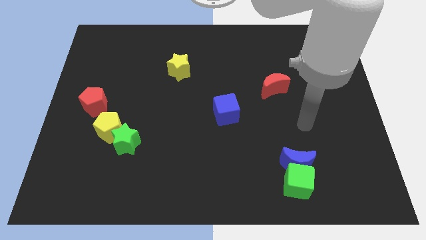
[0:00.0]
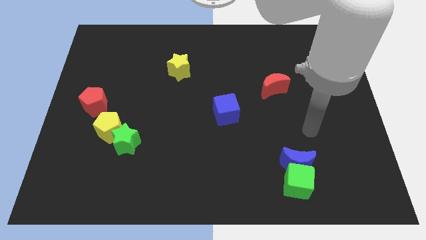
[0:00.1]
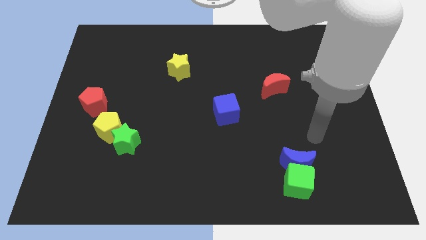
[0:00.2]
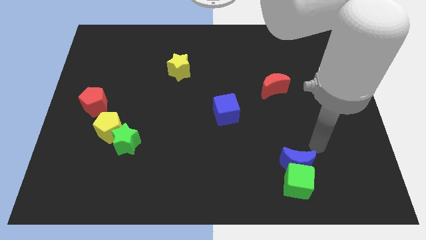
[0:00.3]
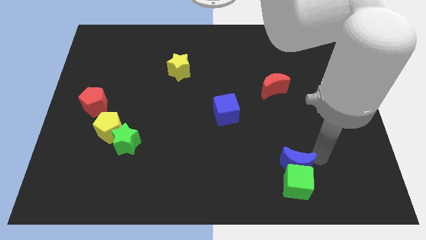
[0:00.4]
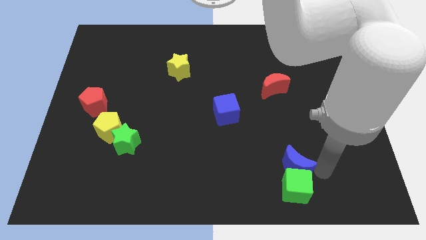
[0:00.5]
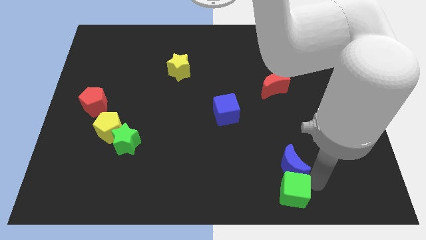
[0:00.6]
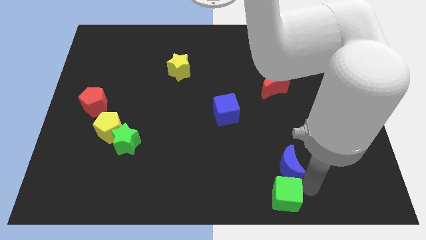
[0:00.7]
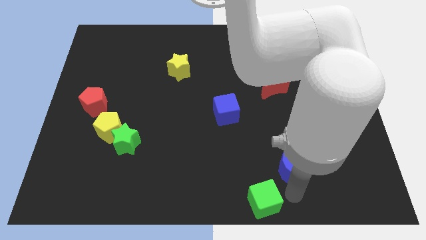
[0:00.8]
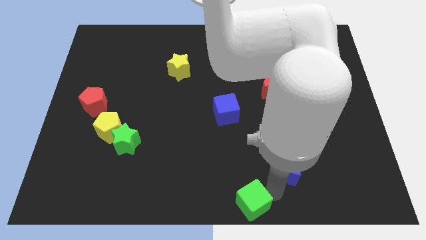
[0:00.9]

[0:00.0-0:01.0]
separate the blue moon from the green cube

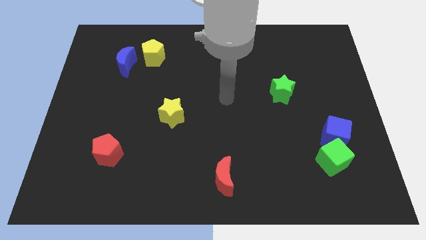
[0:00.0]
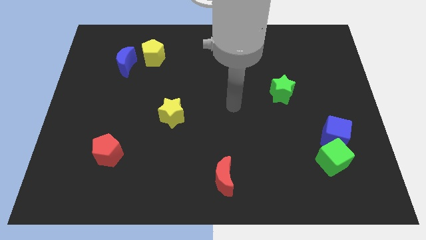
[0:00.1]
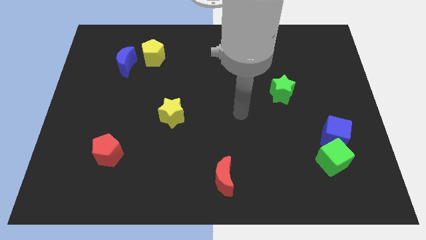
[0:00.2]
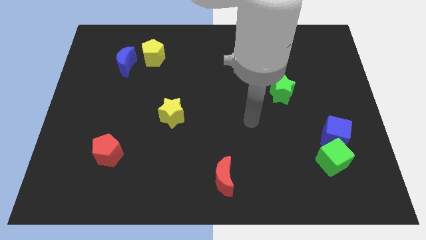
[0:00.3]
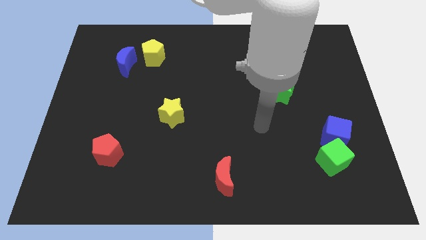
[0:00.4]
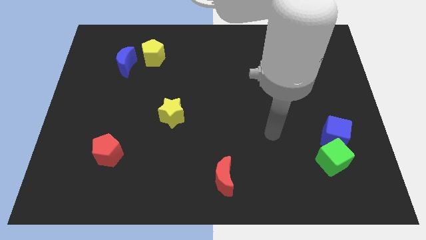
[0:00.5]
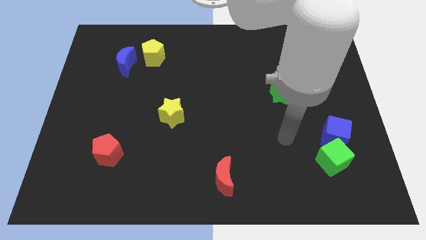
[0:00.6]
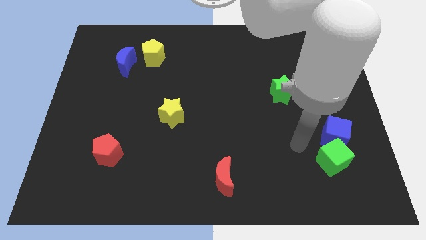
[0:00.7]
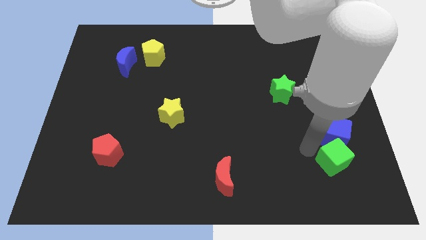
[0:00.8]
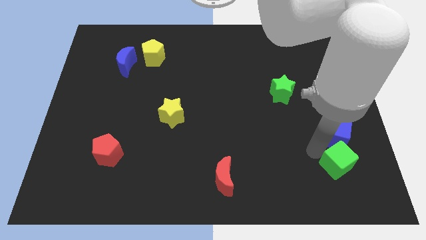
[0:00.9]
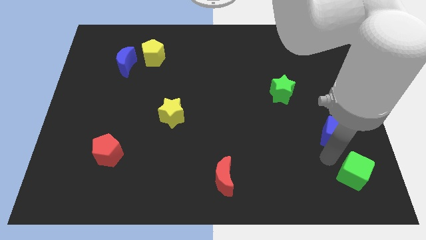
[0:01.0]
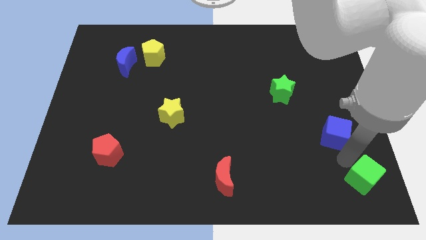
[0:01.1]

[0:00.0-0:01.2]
separate the blue cube from the green cube

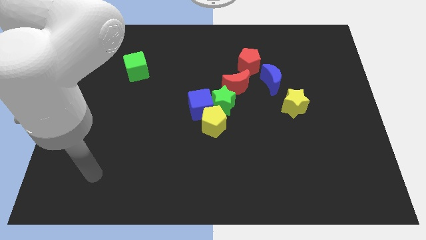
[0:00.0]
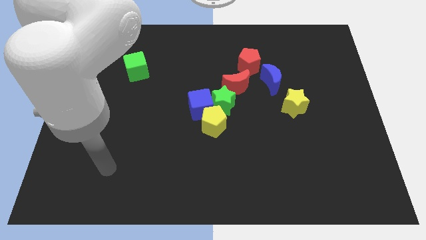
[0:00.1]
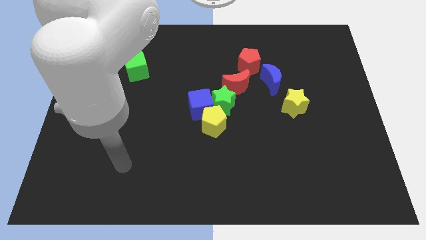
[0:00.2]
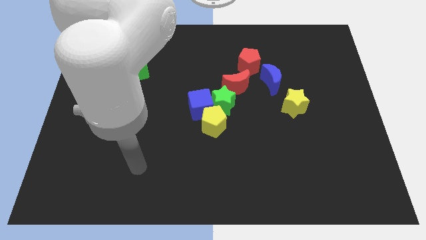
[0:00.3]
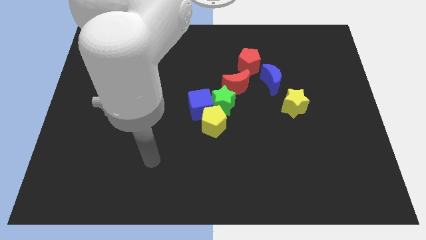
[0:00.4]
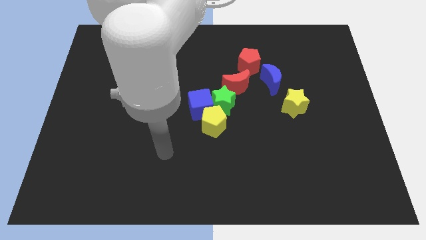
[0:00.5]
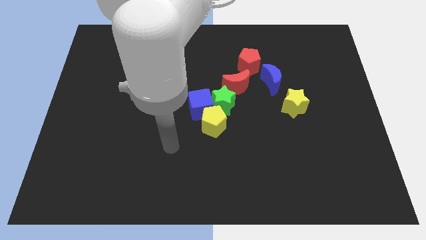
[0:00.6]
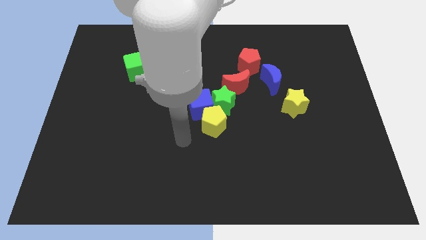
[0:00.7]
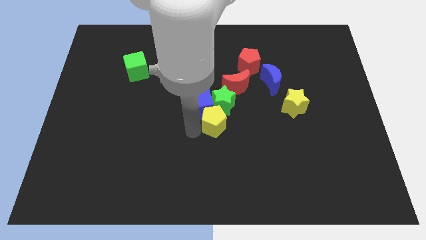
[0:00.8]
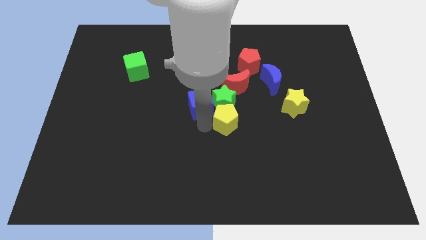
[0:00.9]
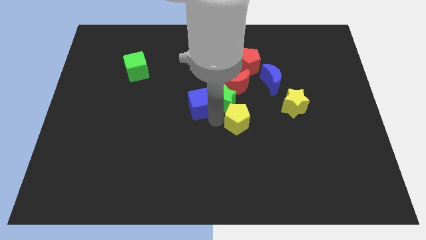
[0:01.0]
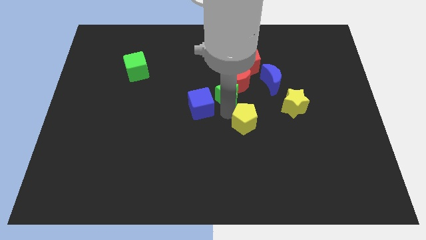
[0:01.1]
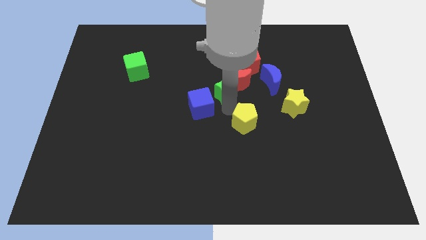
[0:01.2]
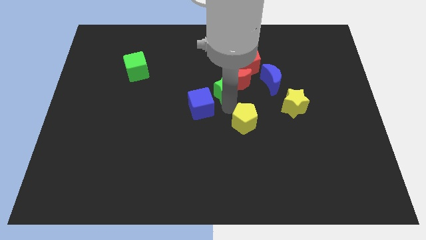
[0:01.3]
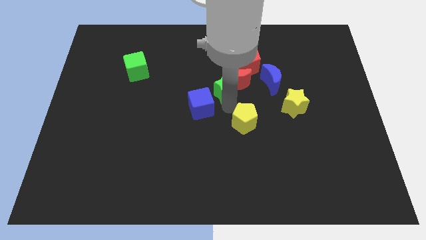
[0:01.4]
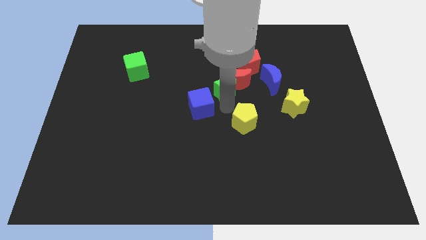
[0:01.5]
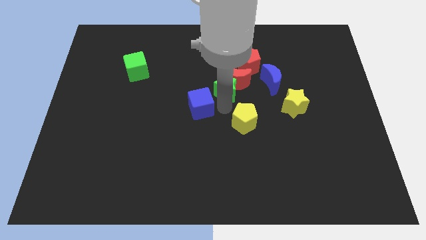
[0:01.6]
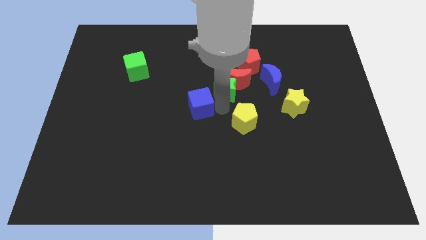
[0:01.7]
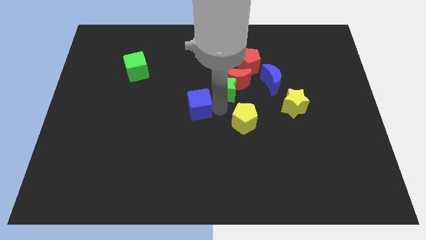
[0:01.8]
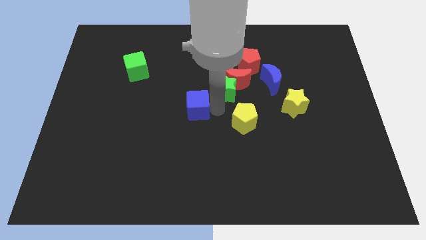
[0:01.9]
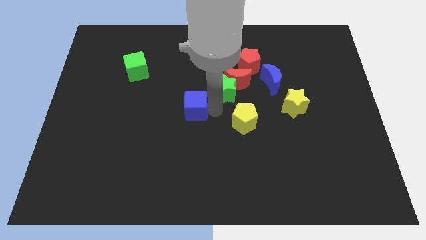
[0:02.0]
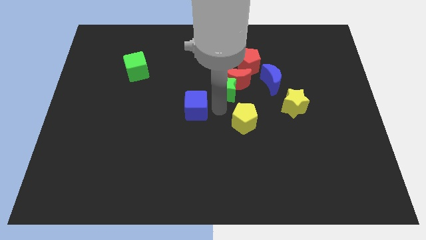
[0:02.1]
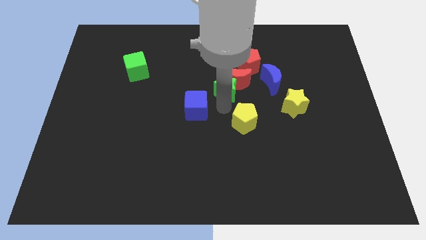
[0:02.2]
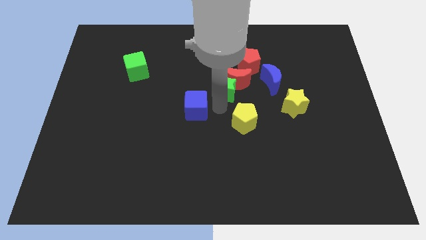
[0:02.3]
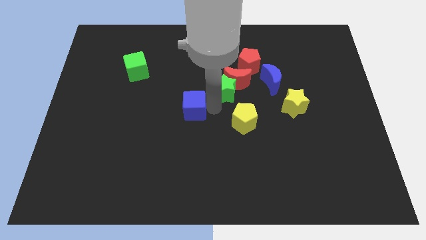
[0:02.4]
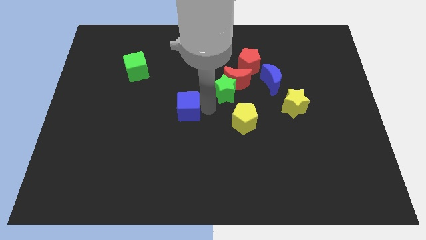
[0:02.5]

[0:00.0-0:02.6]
pull the blue cube apart from the yellow pentagon and green star

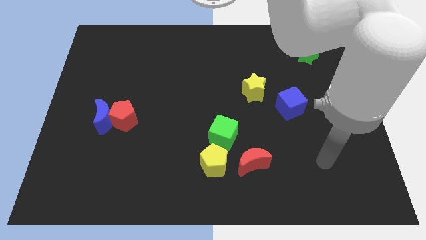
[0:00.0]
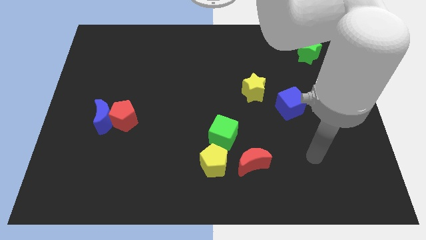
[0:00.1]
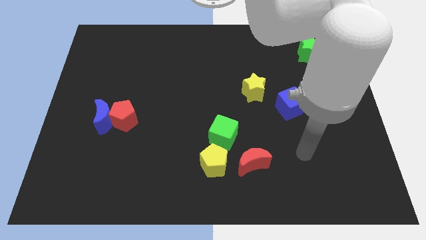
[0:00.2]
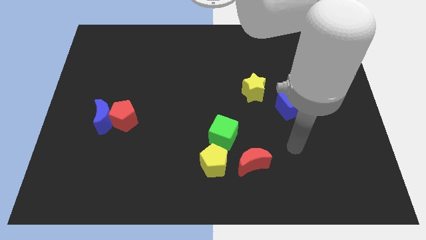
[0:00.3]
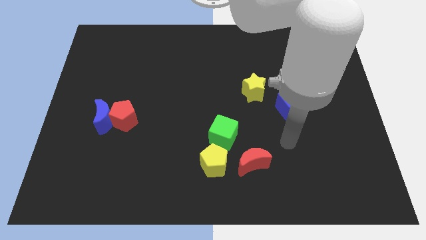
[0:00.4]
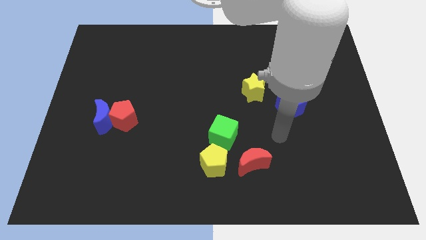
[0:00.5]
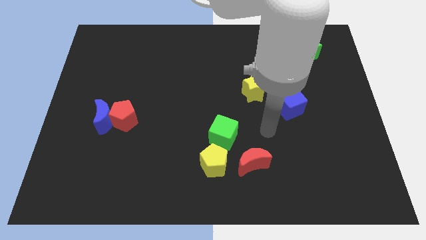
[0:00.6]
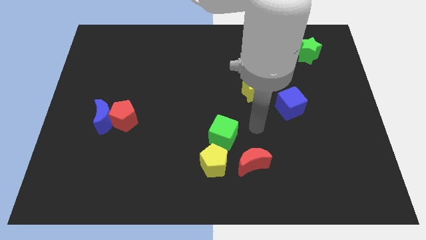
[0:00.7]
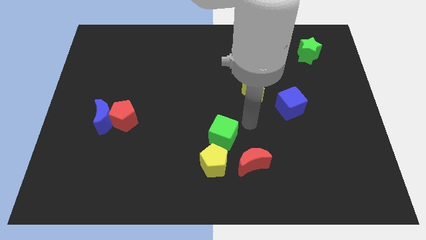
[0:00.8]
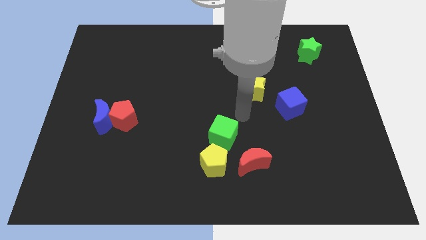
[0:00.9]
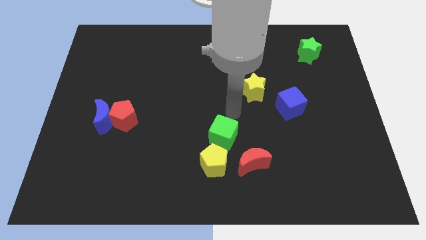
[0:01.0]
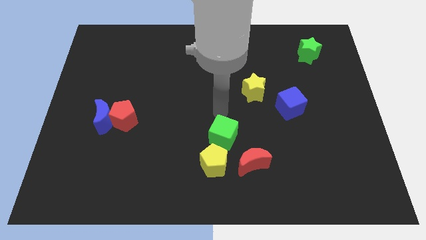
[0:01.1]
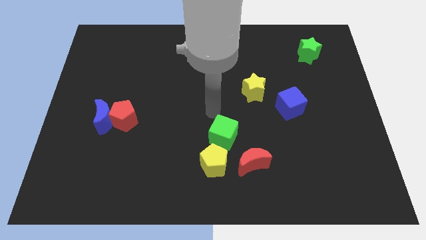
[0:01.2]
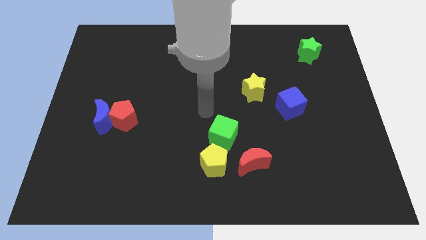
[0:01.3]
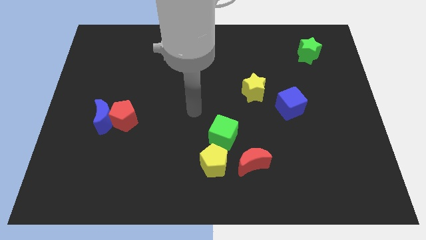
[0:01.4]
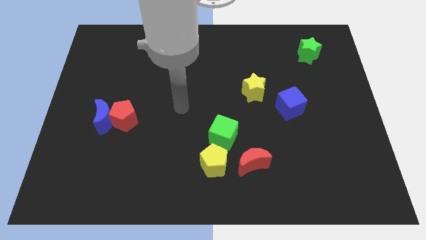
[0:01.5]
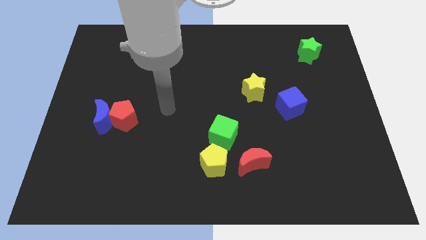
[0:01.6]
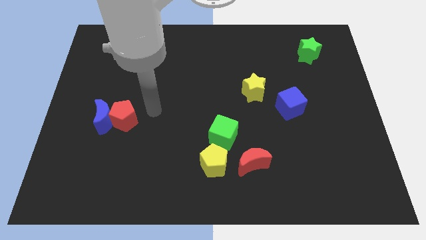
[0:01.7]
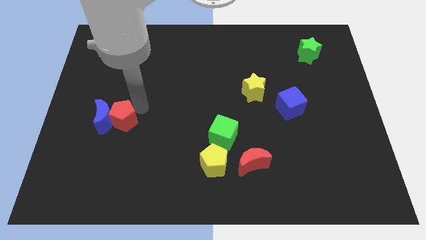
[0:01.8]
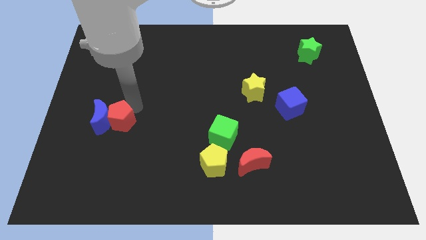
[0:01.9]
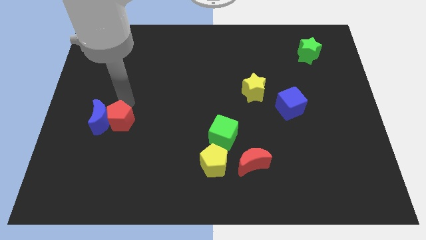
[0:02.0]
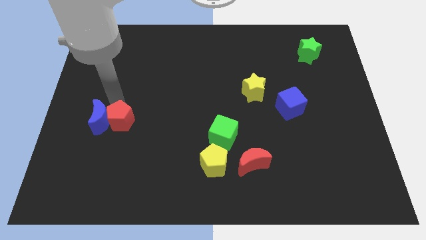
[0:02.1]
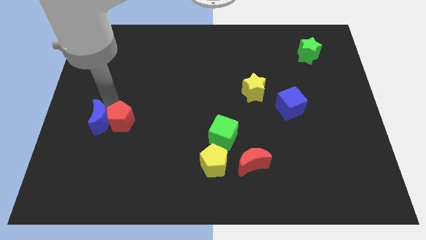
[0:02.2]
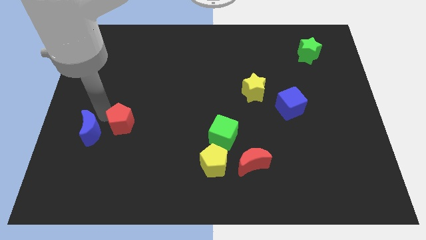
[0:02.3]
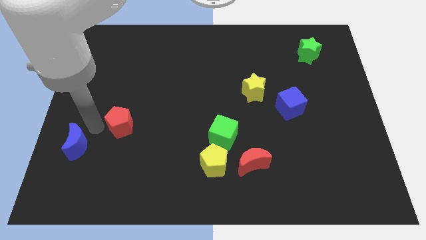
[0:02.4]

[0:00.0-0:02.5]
move the red pentagon away from the blue moon

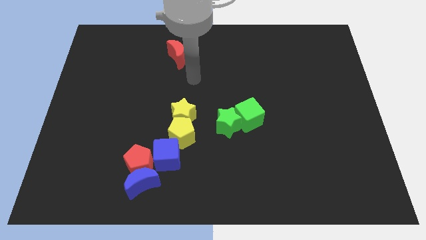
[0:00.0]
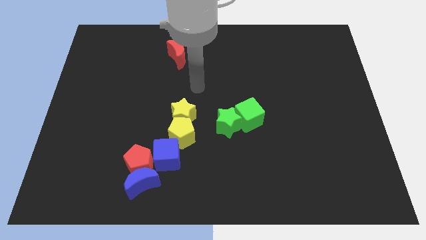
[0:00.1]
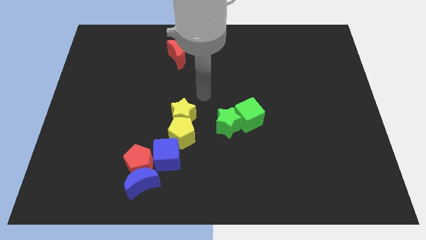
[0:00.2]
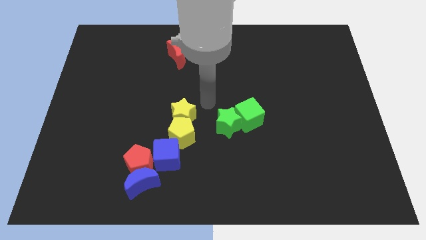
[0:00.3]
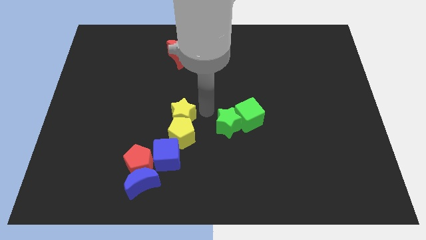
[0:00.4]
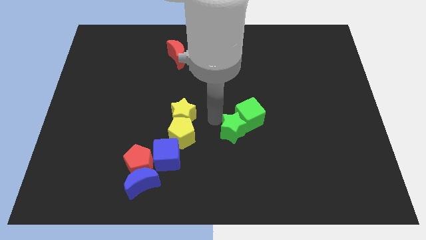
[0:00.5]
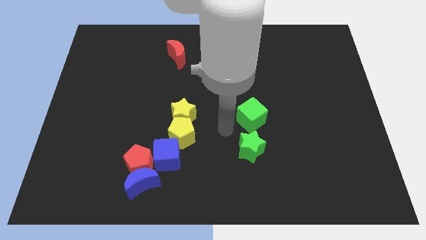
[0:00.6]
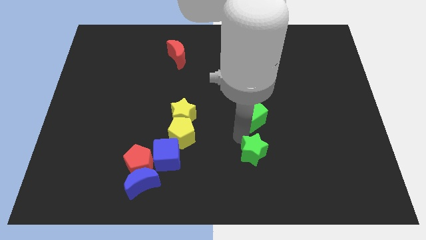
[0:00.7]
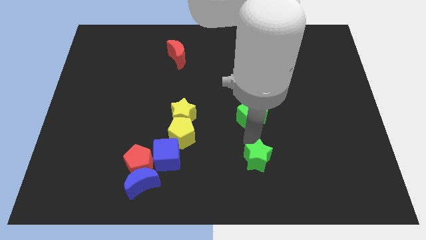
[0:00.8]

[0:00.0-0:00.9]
pull the green cube apart from the green star

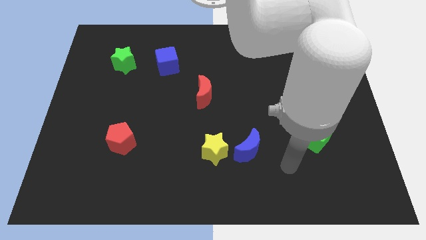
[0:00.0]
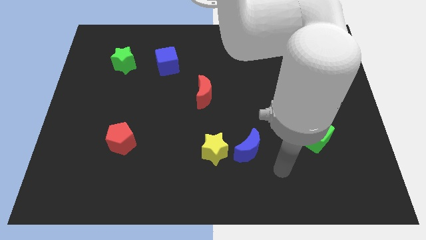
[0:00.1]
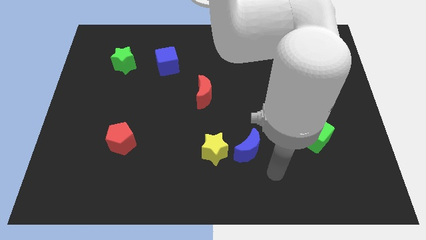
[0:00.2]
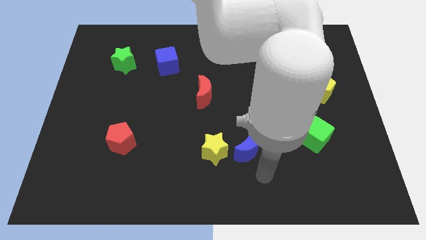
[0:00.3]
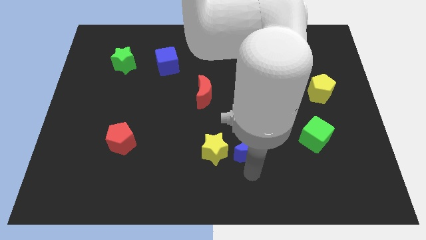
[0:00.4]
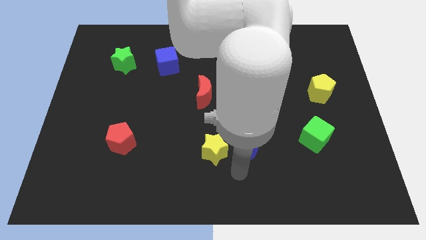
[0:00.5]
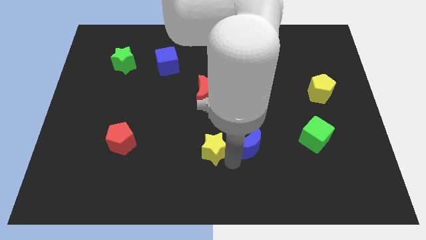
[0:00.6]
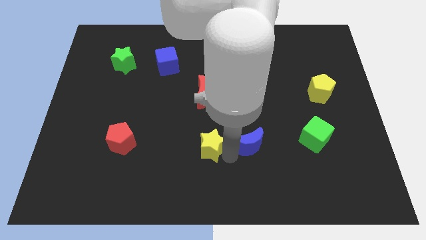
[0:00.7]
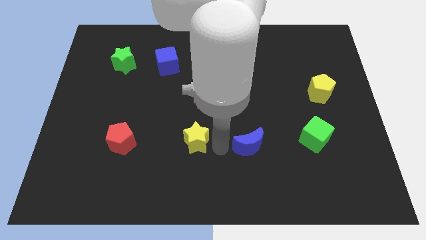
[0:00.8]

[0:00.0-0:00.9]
move the blue moon away from the yellow star

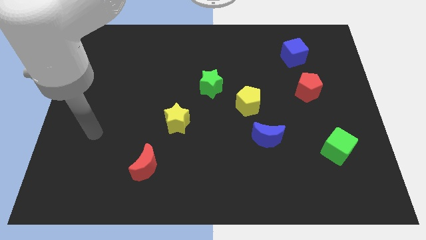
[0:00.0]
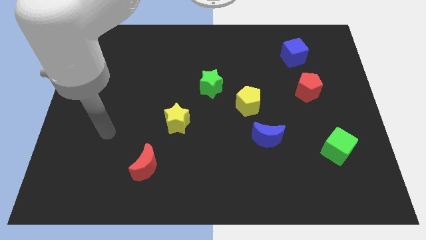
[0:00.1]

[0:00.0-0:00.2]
move the blue moon away from the yellow pentagon

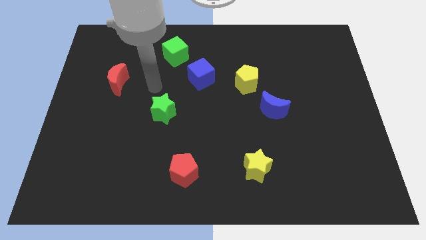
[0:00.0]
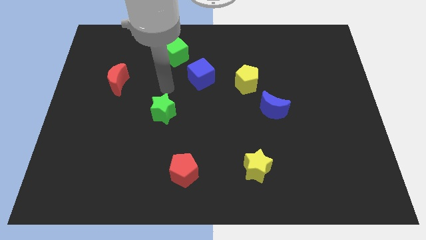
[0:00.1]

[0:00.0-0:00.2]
separate the blue moon from the yellow pentagon
